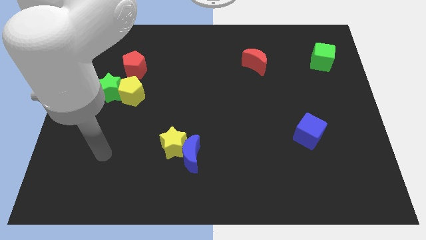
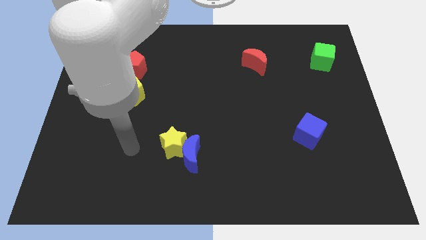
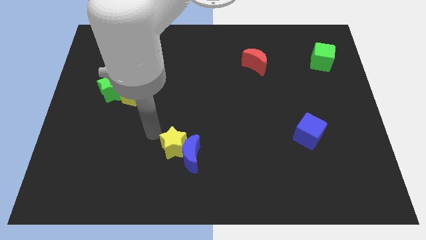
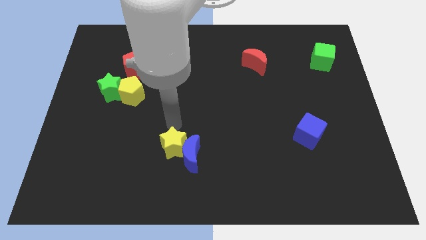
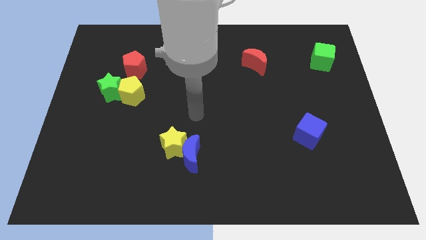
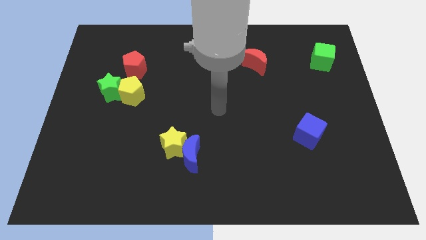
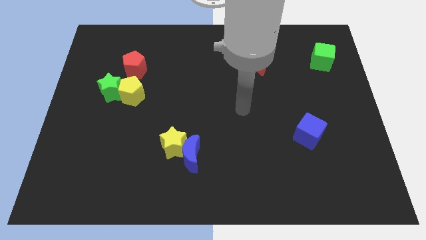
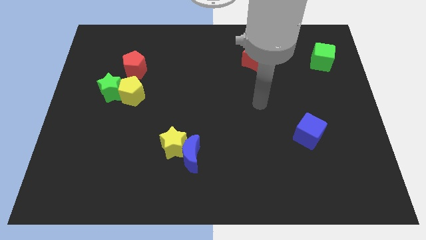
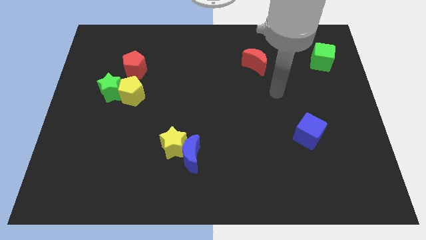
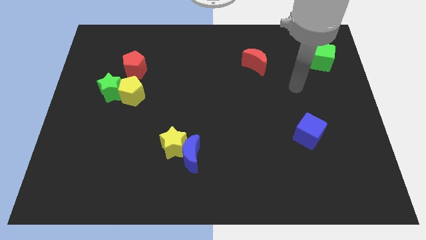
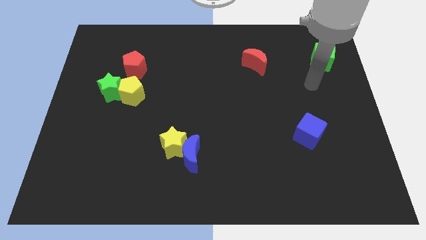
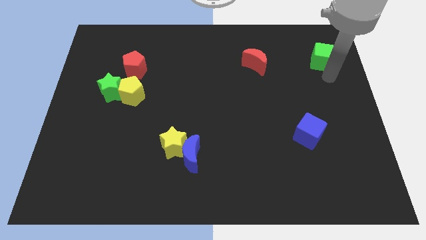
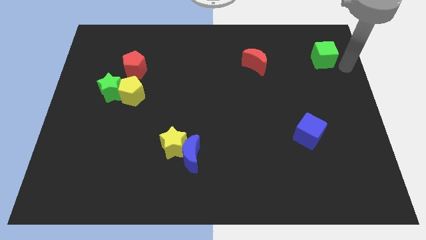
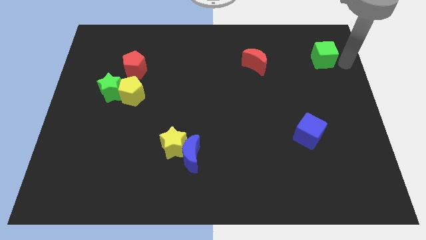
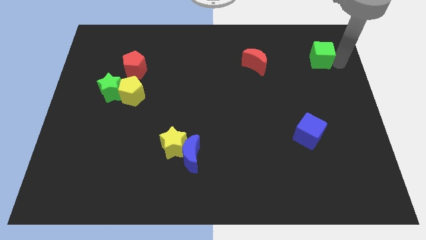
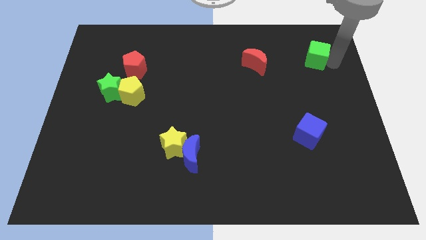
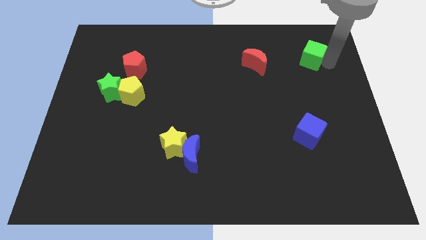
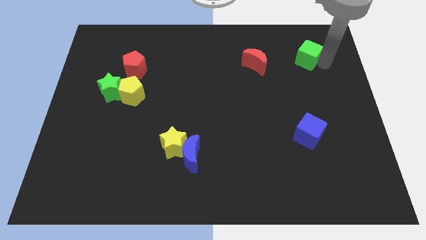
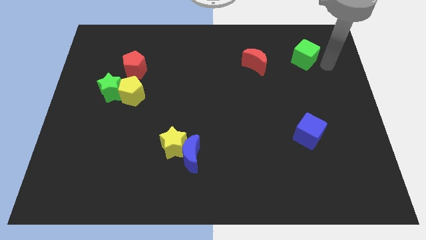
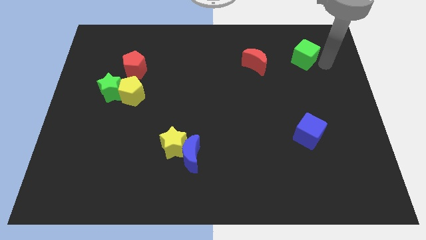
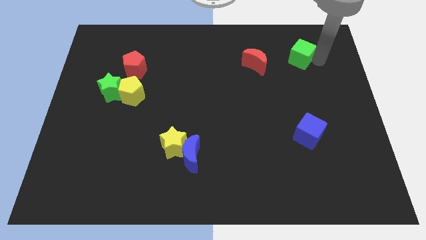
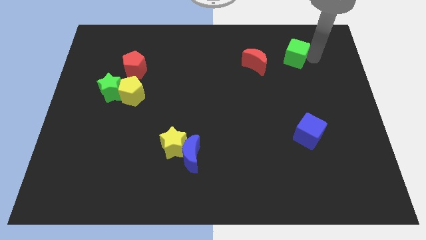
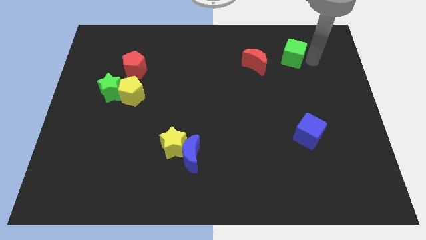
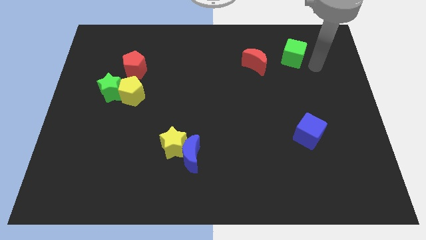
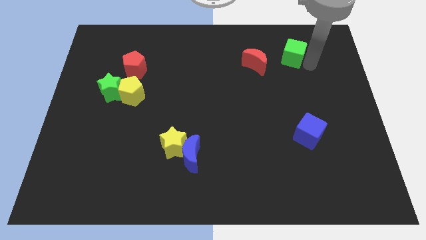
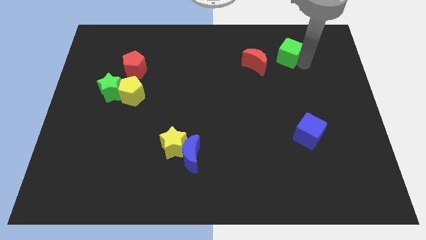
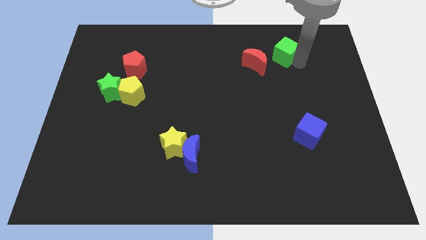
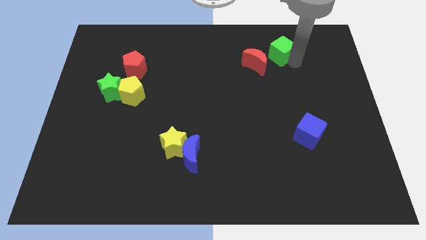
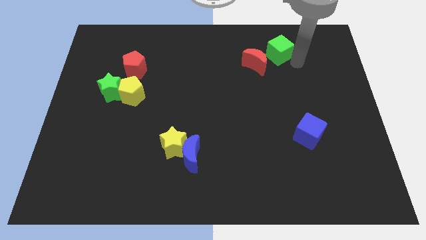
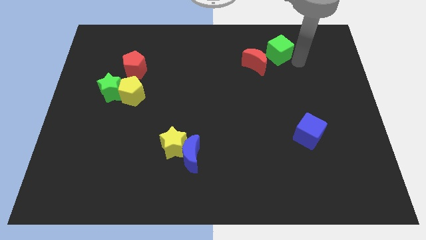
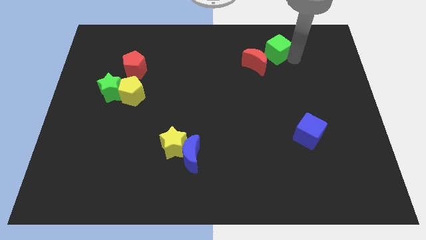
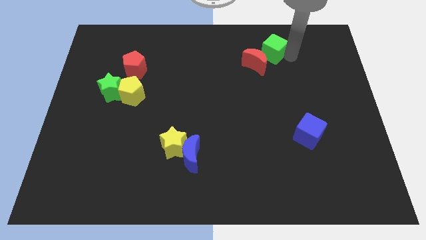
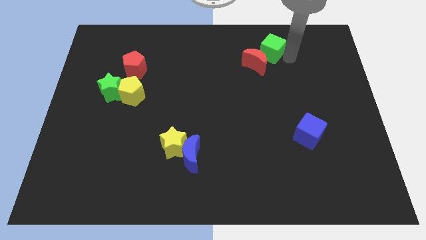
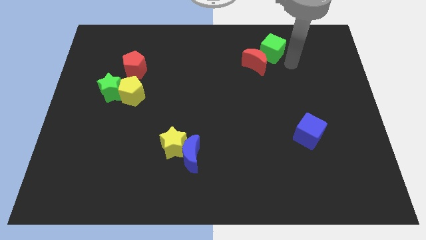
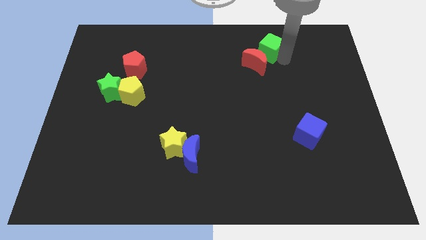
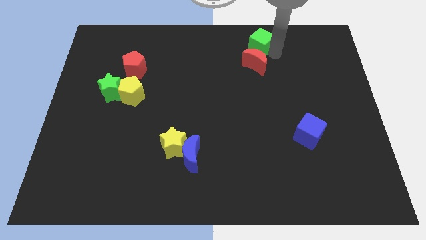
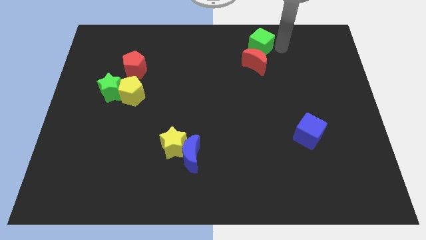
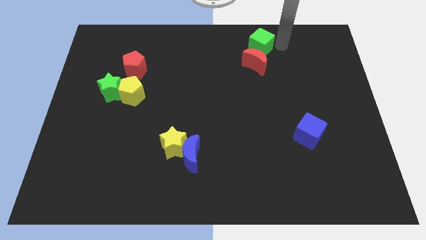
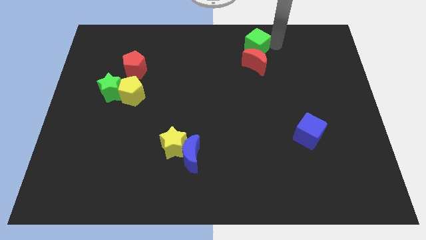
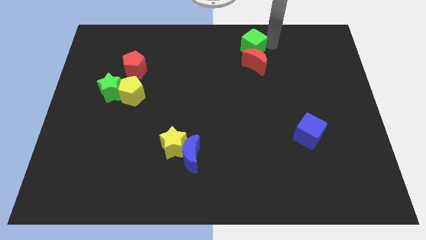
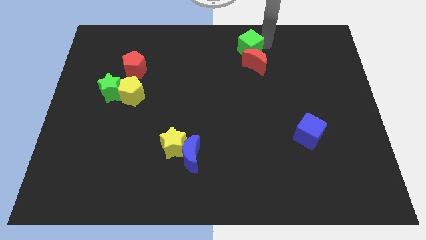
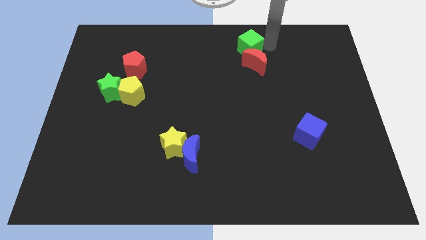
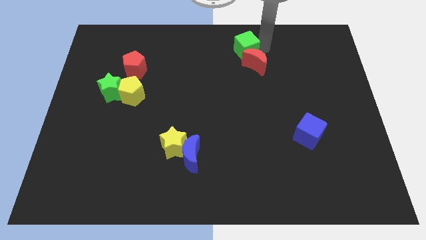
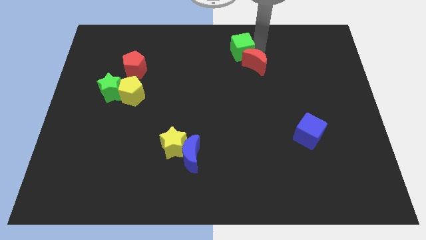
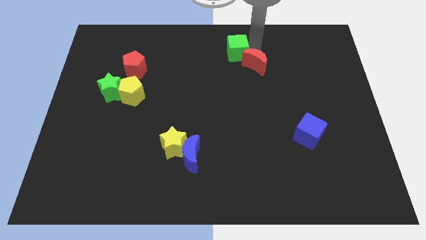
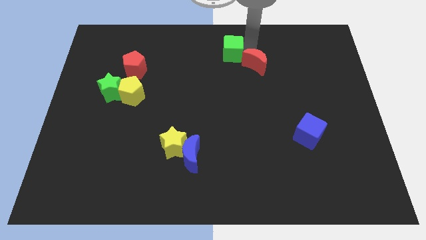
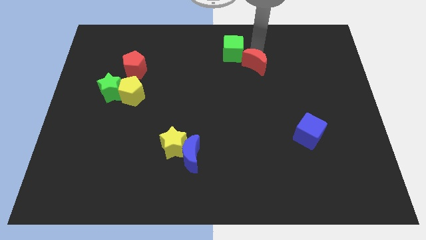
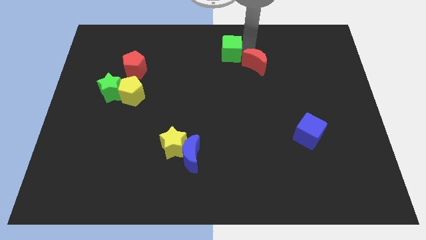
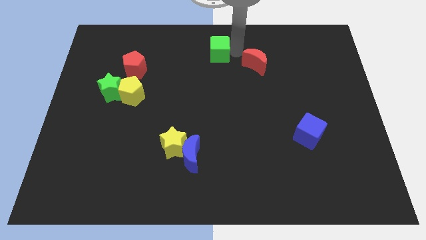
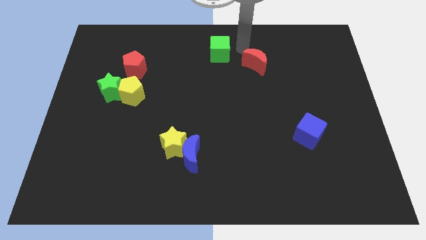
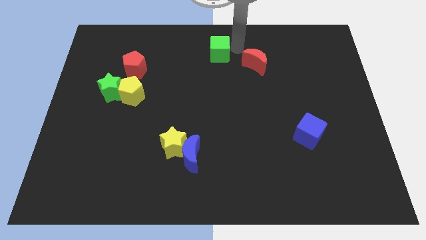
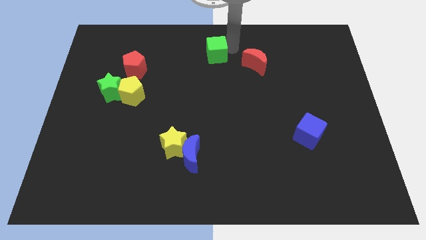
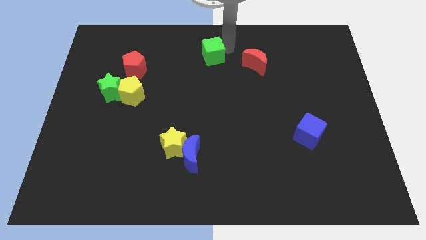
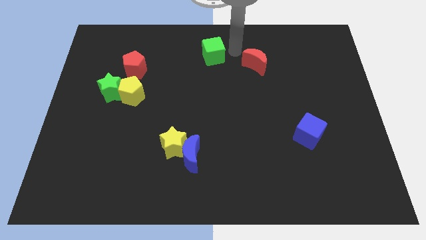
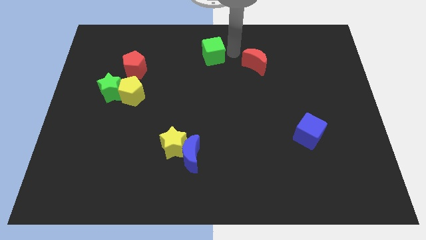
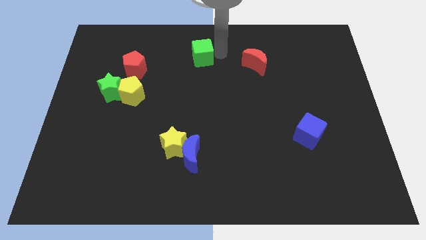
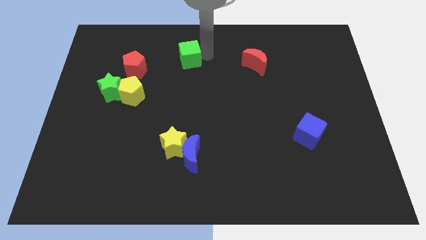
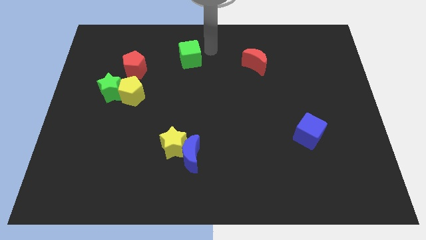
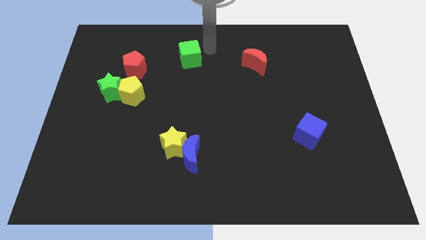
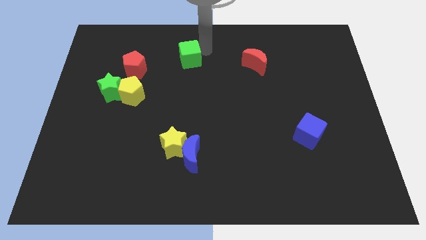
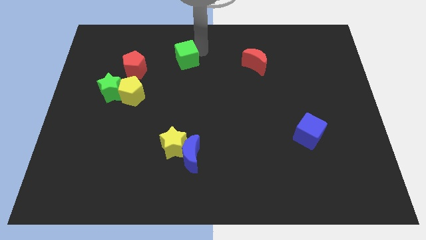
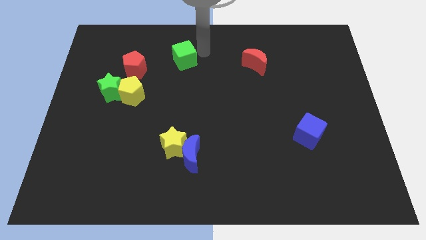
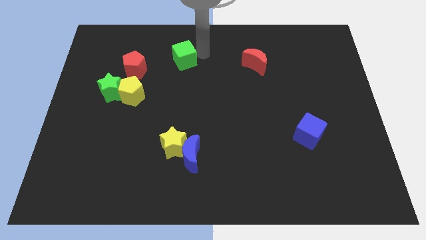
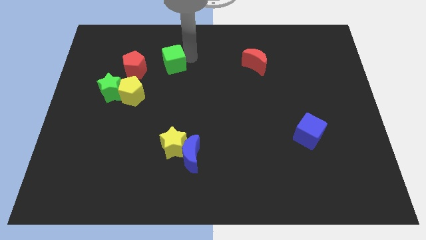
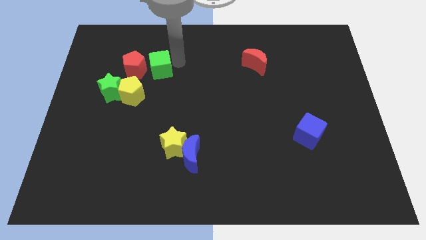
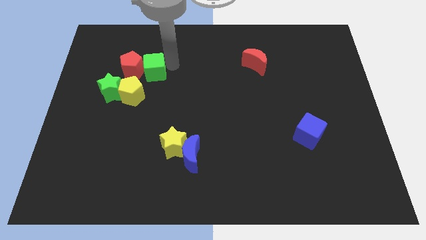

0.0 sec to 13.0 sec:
push the green cube to the red pentagon
